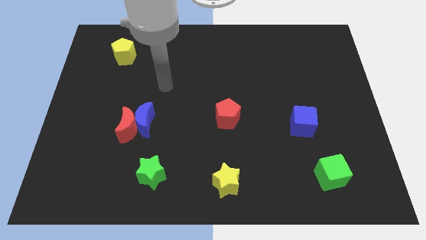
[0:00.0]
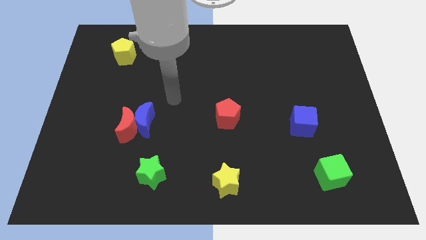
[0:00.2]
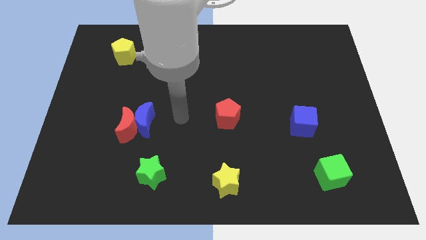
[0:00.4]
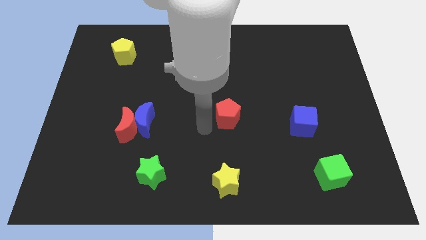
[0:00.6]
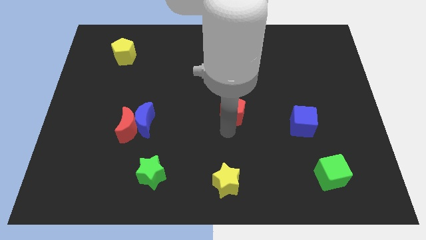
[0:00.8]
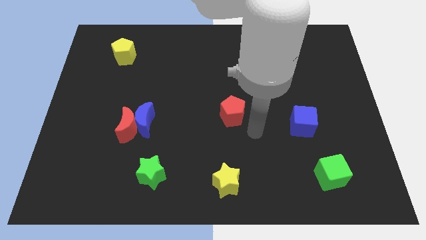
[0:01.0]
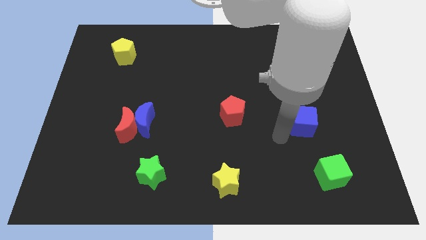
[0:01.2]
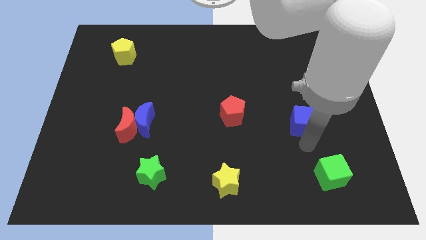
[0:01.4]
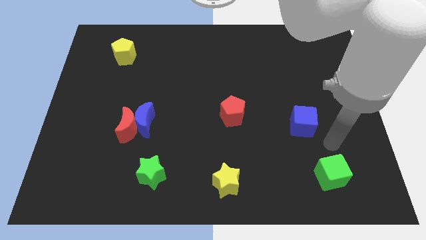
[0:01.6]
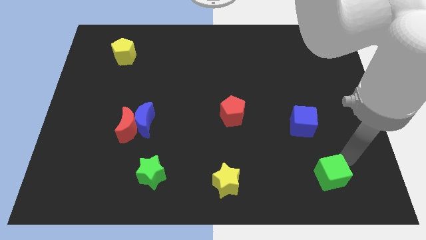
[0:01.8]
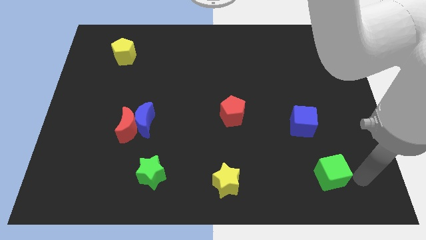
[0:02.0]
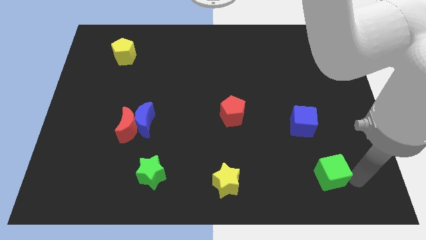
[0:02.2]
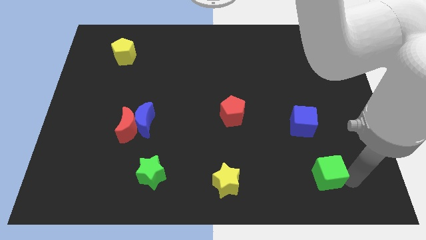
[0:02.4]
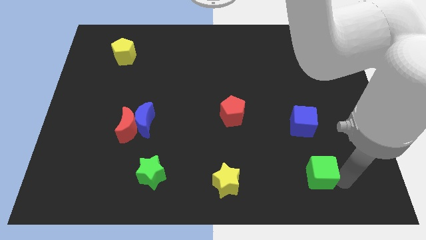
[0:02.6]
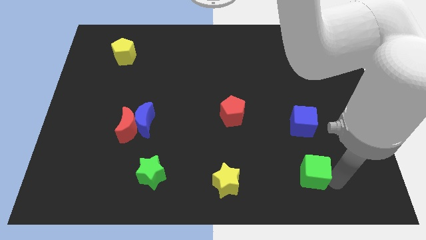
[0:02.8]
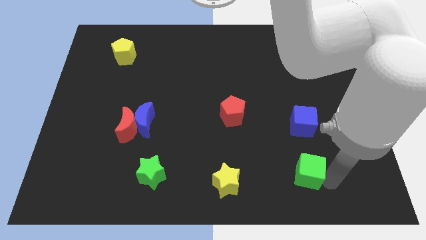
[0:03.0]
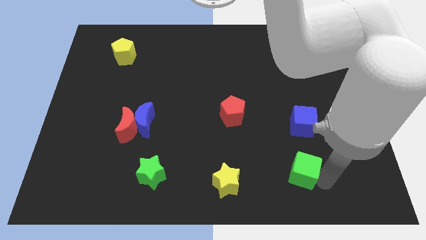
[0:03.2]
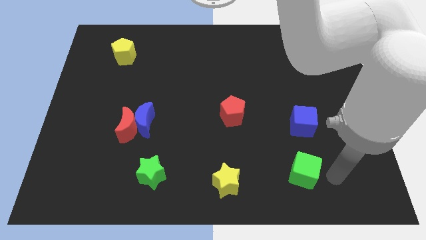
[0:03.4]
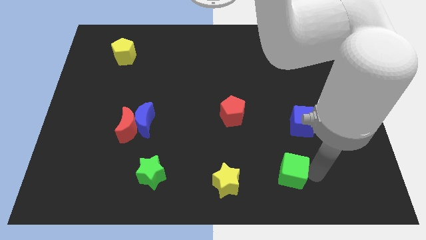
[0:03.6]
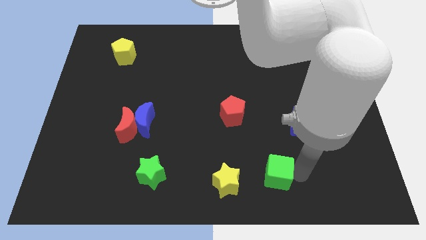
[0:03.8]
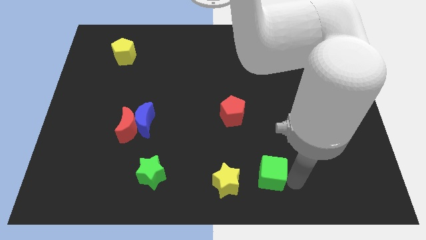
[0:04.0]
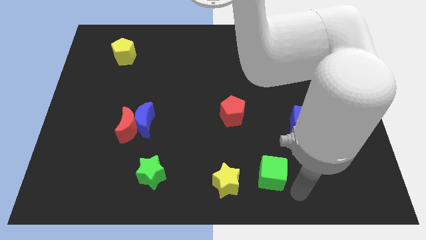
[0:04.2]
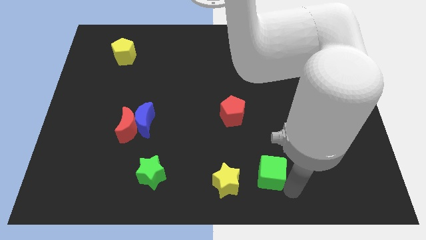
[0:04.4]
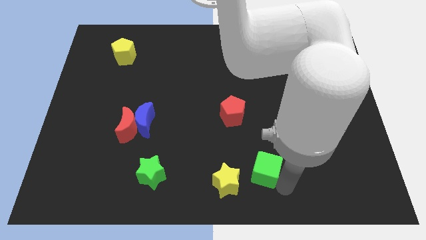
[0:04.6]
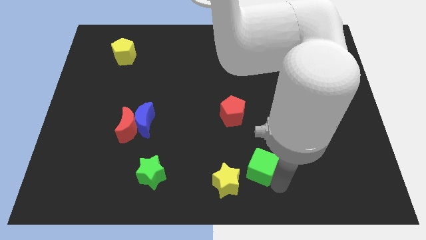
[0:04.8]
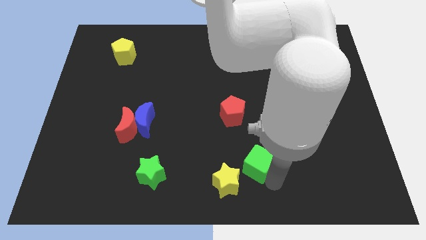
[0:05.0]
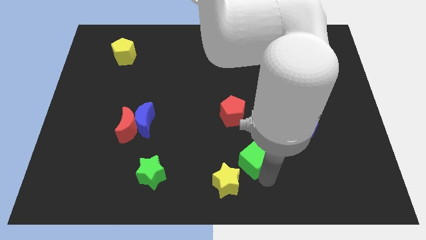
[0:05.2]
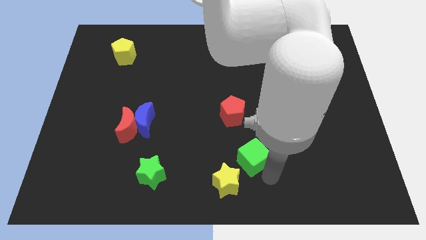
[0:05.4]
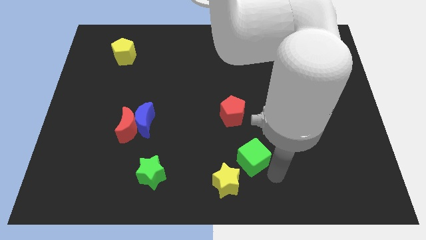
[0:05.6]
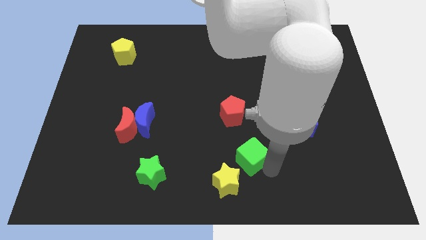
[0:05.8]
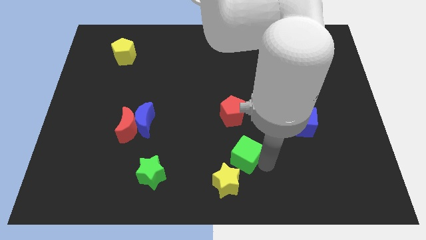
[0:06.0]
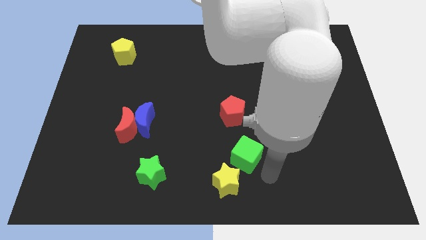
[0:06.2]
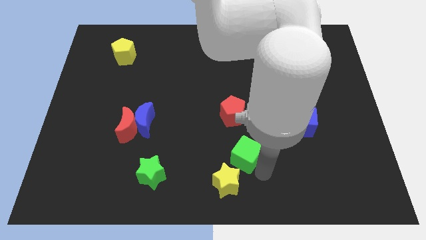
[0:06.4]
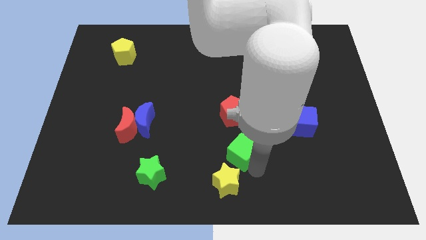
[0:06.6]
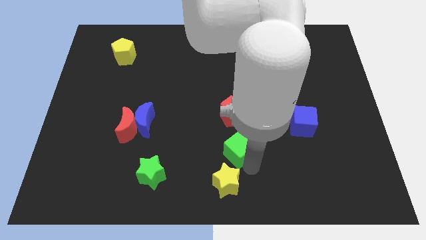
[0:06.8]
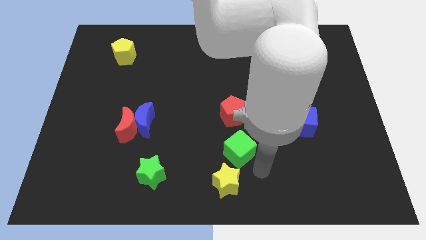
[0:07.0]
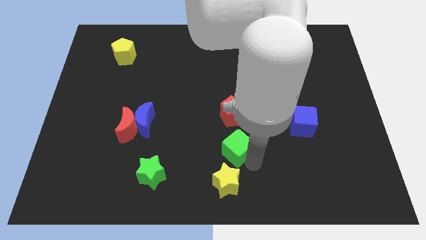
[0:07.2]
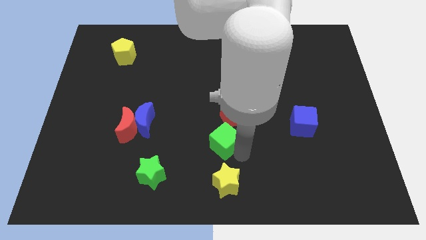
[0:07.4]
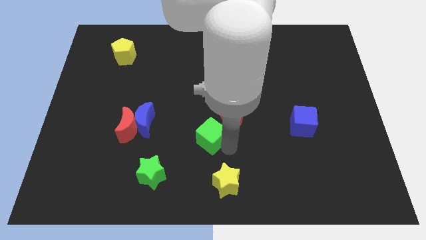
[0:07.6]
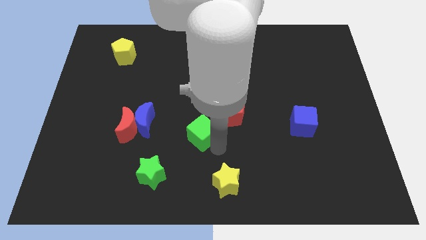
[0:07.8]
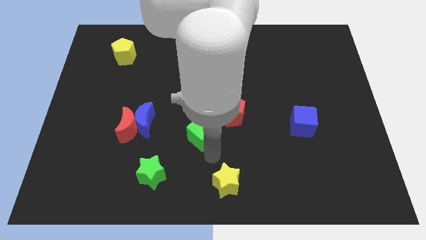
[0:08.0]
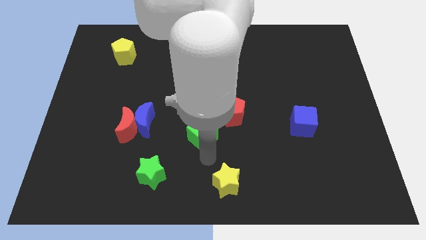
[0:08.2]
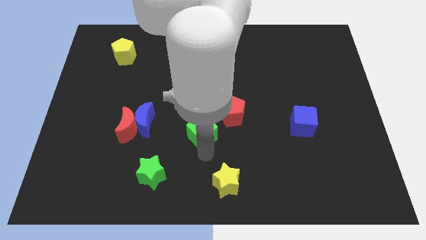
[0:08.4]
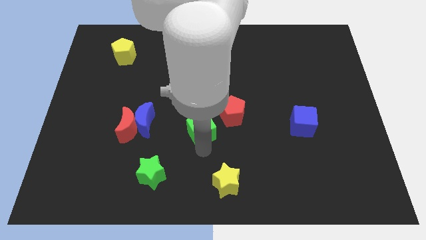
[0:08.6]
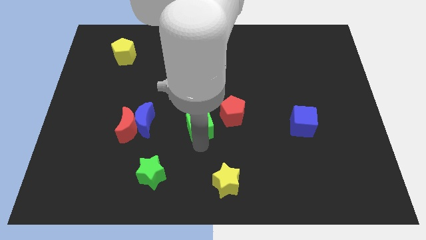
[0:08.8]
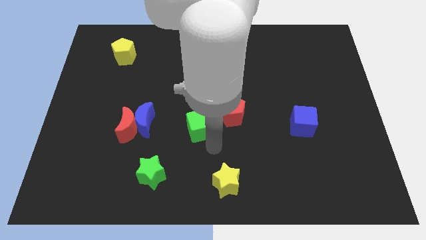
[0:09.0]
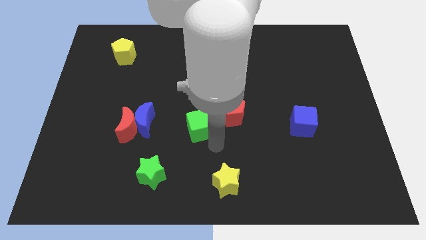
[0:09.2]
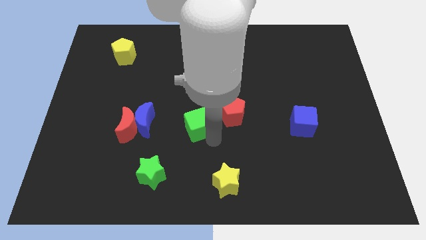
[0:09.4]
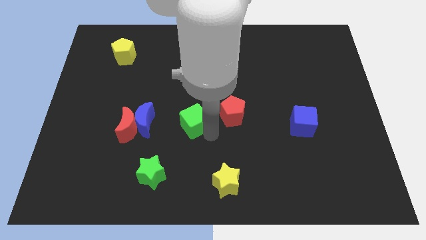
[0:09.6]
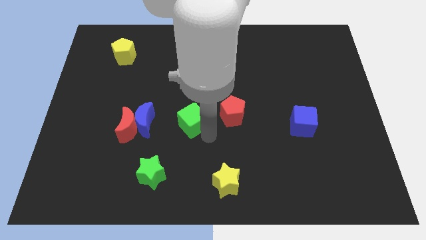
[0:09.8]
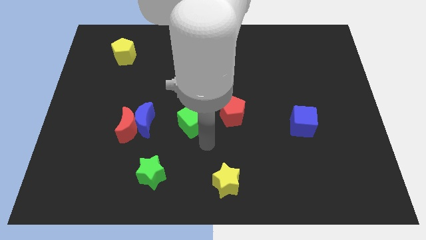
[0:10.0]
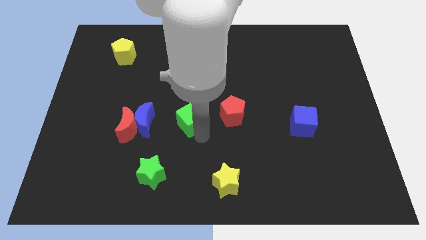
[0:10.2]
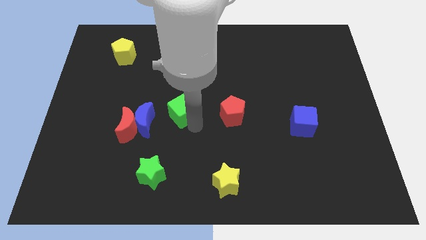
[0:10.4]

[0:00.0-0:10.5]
put the green cube to the top right of the blue moon

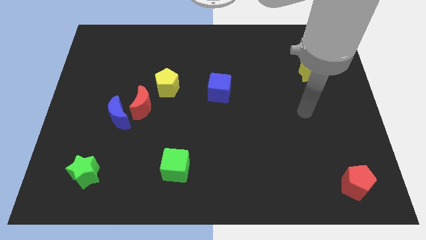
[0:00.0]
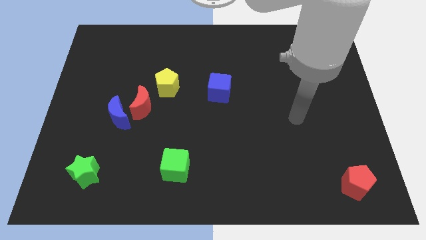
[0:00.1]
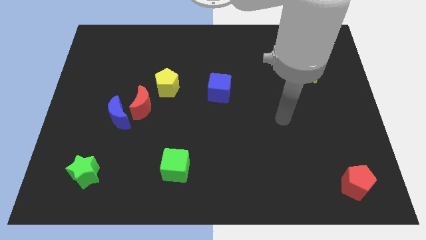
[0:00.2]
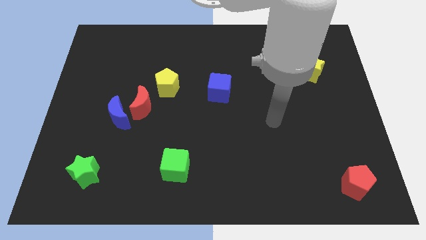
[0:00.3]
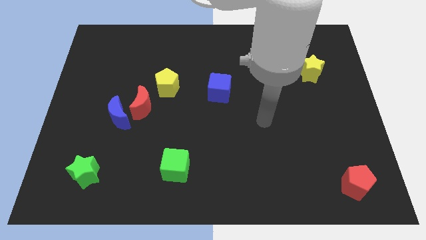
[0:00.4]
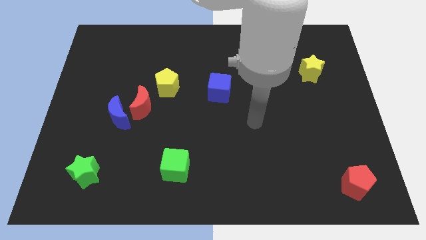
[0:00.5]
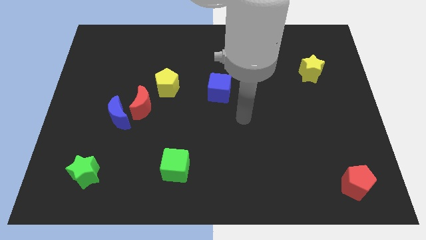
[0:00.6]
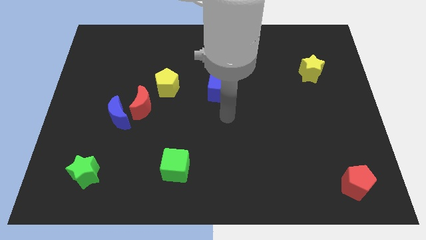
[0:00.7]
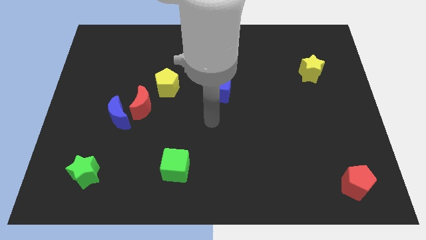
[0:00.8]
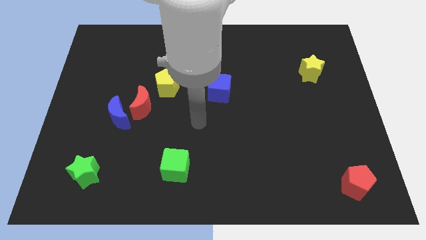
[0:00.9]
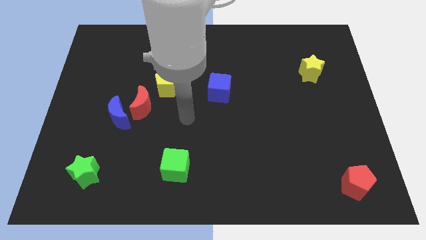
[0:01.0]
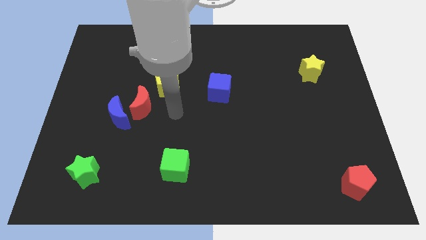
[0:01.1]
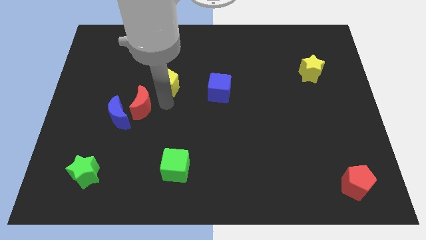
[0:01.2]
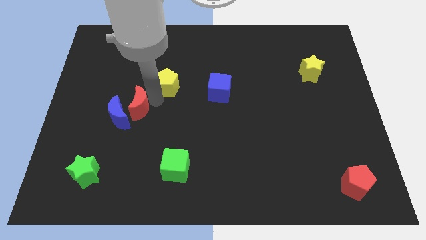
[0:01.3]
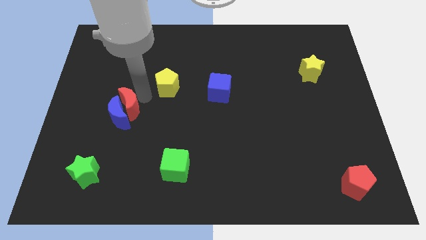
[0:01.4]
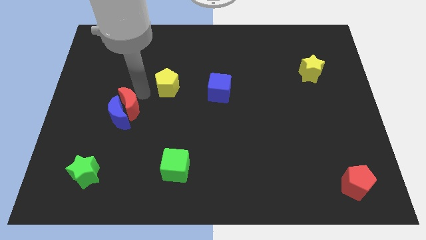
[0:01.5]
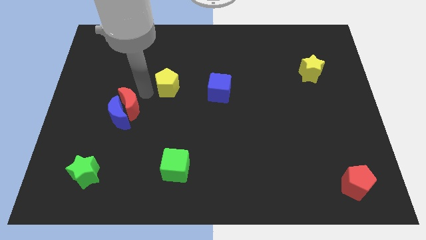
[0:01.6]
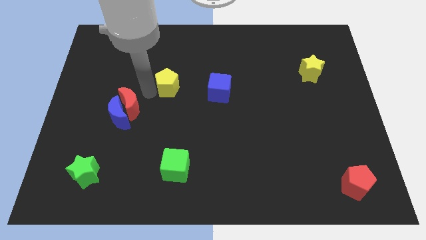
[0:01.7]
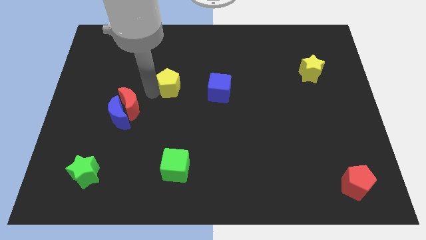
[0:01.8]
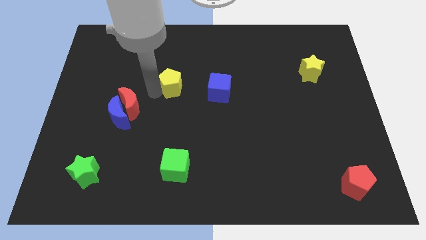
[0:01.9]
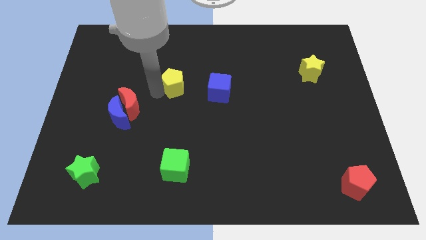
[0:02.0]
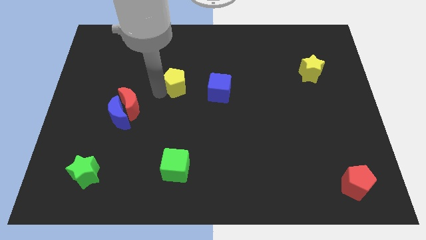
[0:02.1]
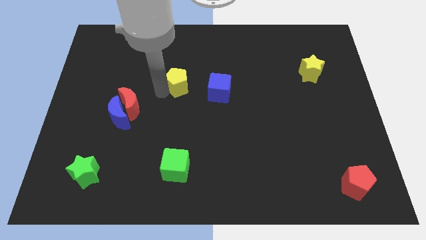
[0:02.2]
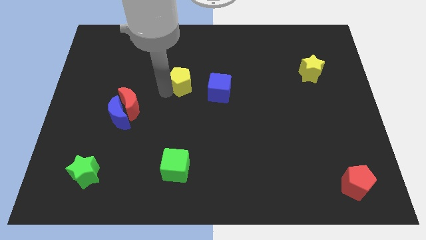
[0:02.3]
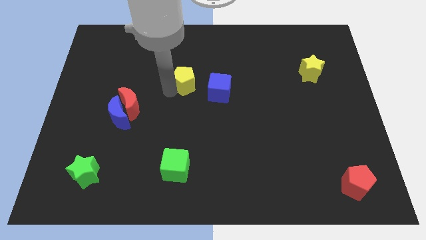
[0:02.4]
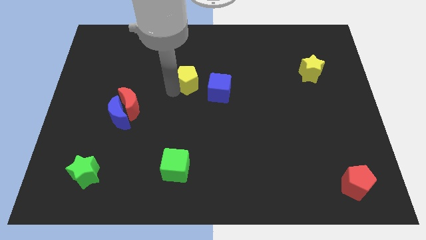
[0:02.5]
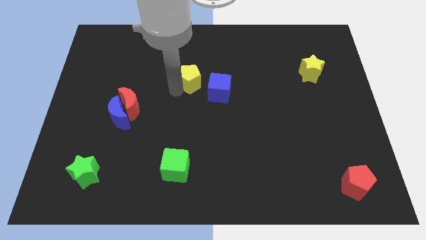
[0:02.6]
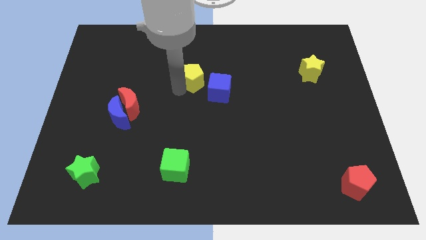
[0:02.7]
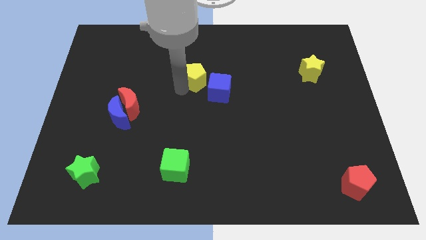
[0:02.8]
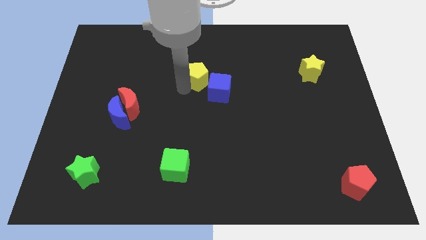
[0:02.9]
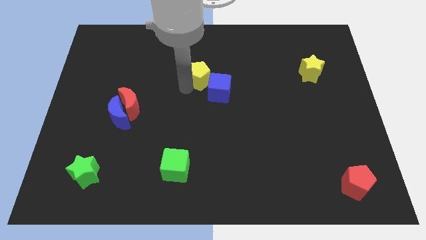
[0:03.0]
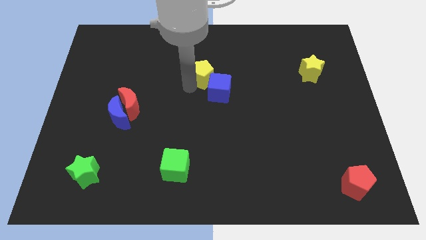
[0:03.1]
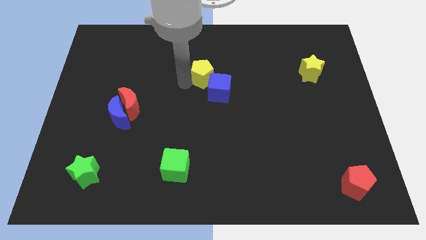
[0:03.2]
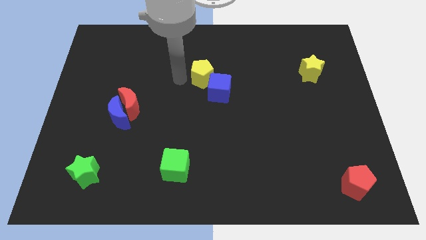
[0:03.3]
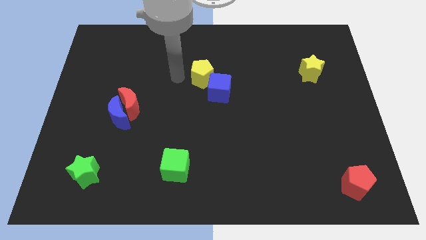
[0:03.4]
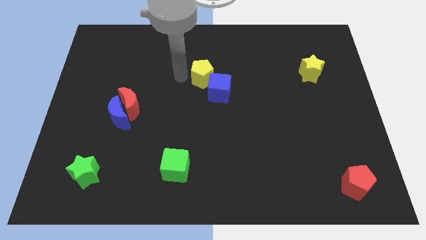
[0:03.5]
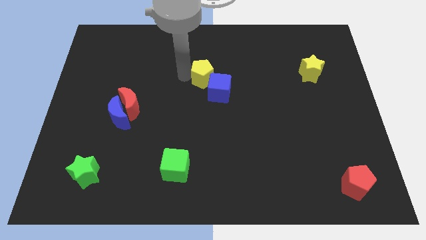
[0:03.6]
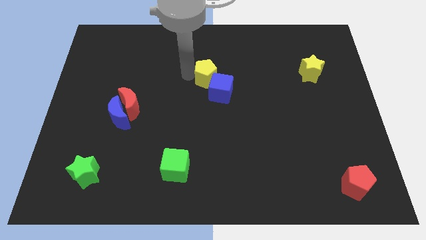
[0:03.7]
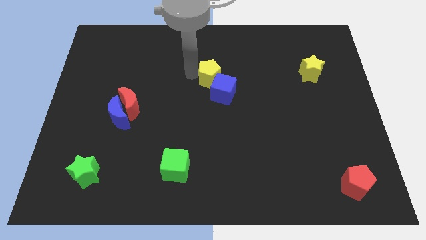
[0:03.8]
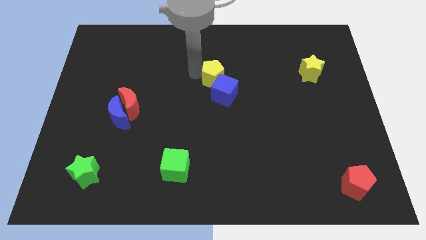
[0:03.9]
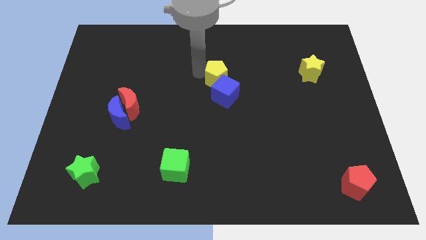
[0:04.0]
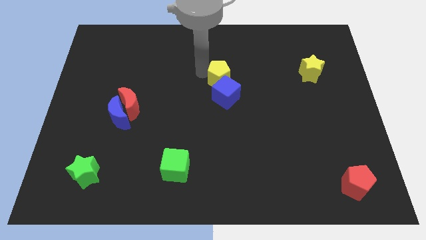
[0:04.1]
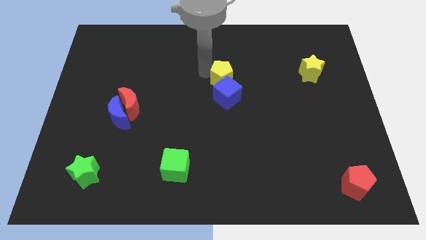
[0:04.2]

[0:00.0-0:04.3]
put the yellow pentagon diagonally up and to the right of the blue cube
